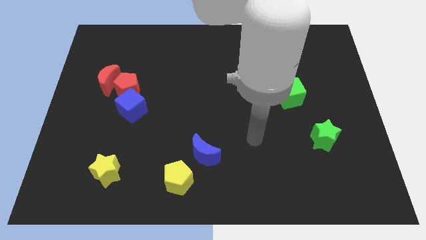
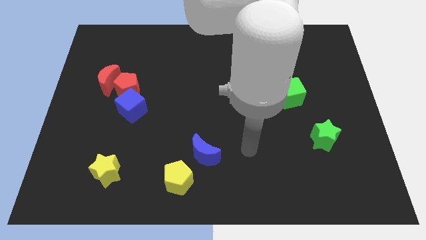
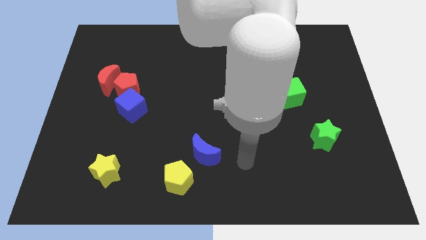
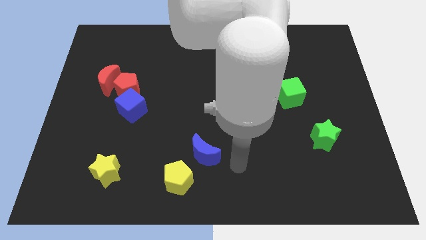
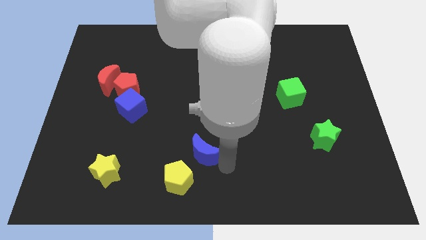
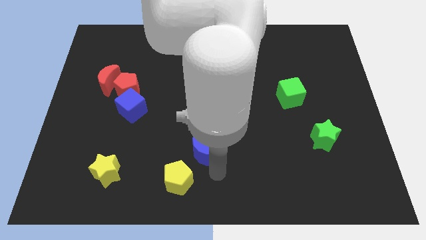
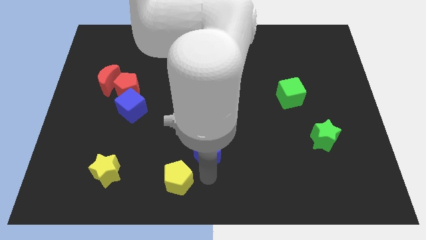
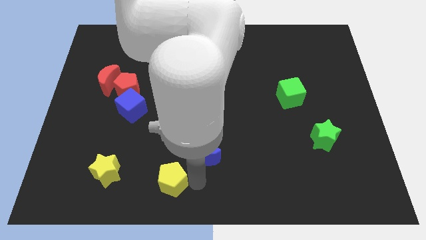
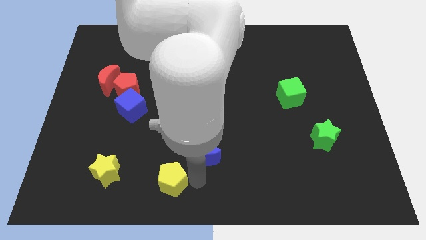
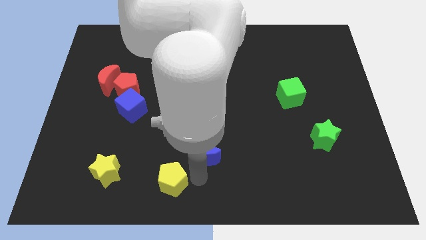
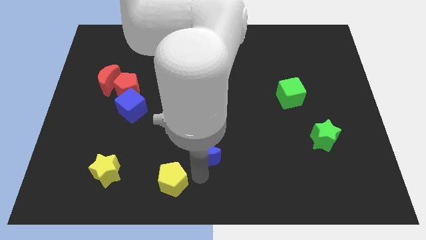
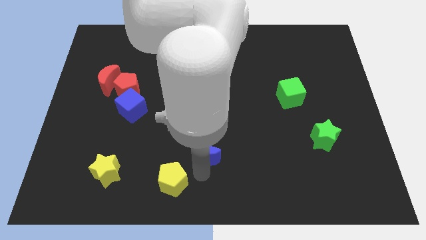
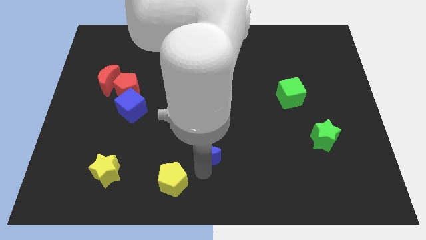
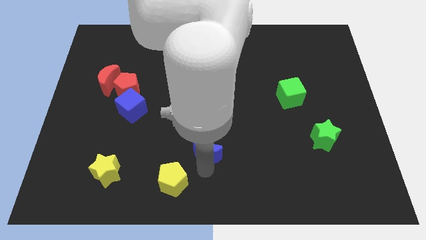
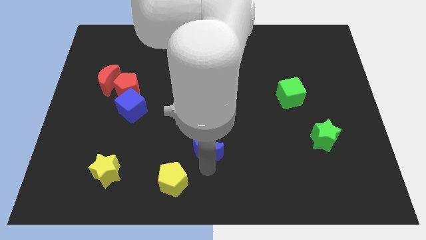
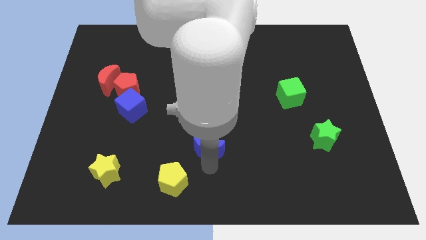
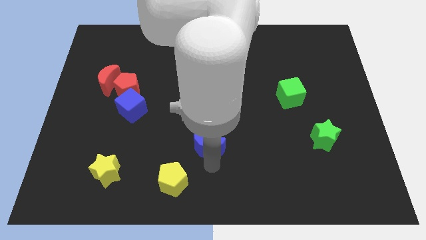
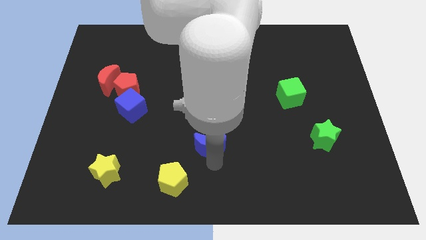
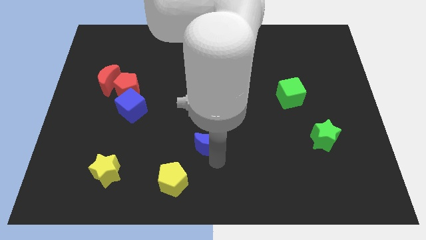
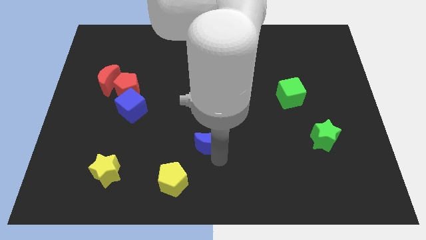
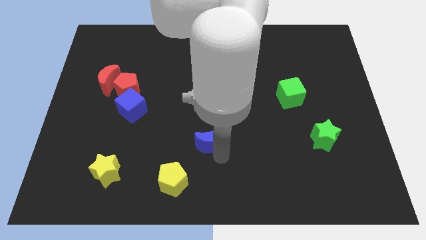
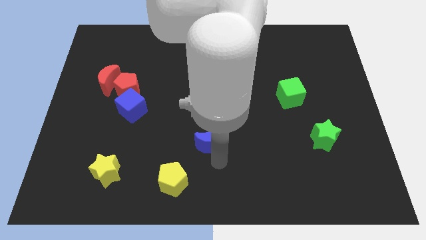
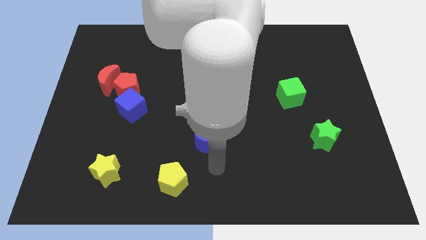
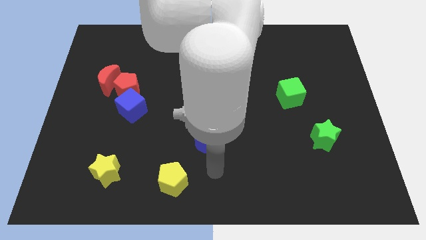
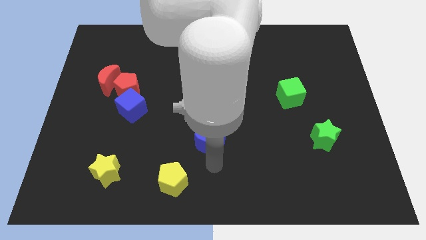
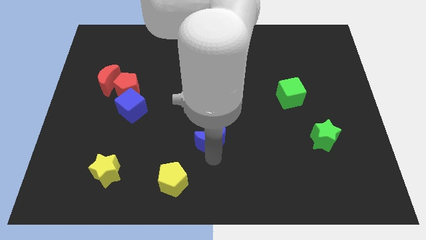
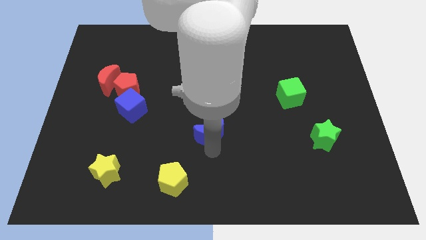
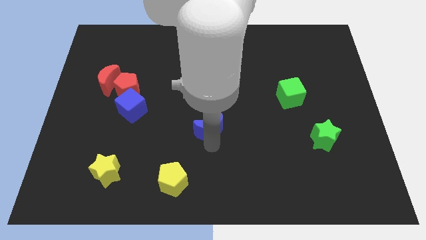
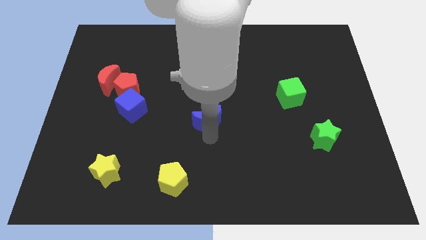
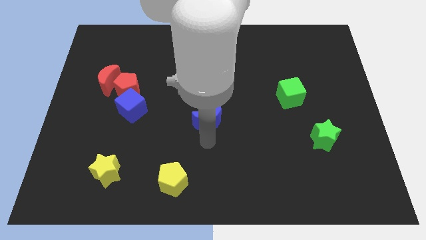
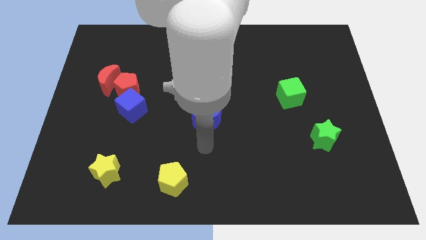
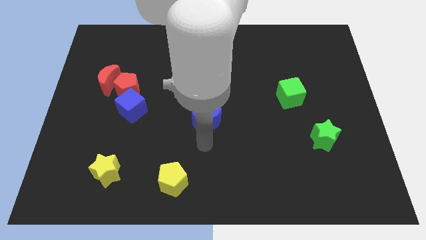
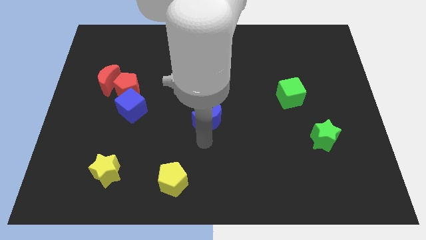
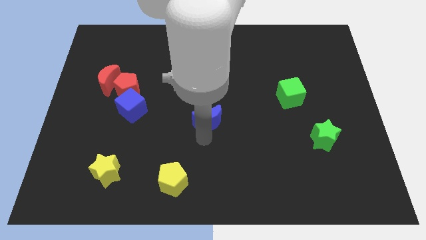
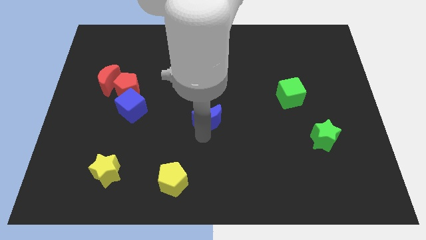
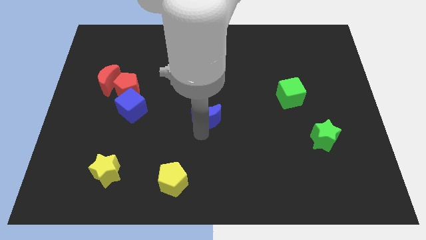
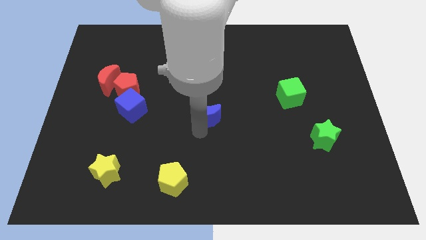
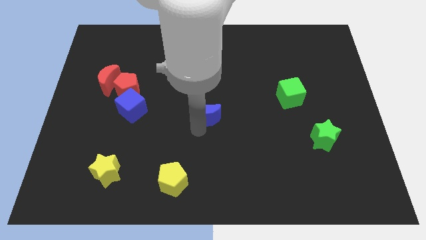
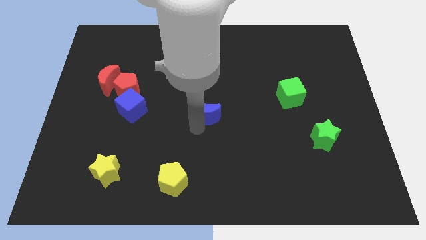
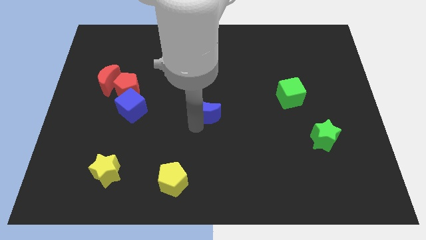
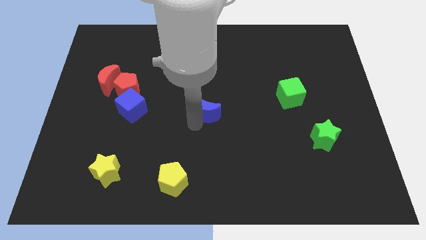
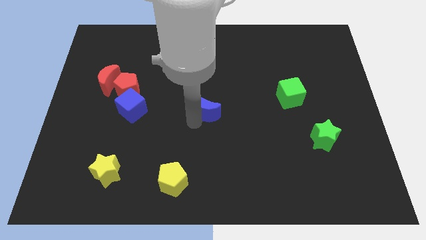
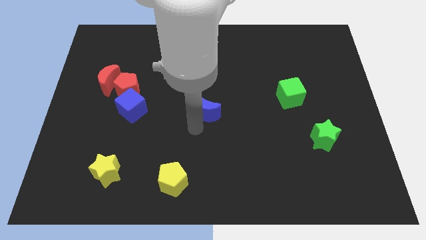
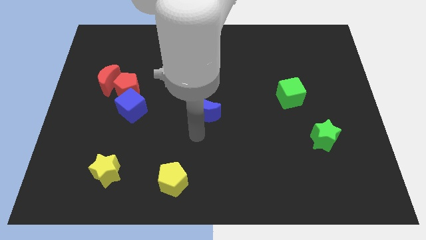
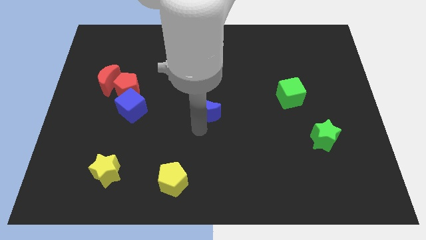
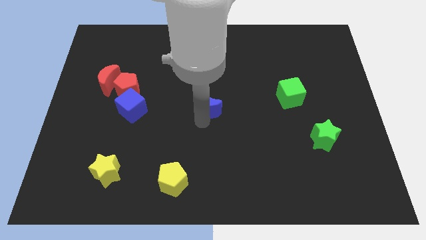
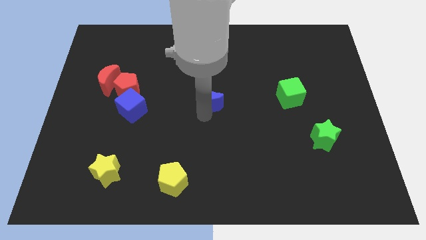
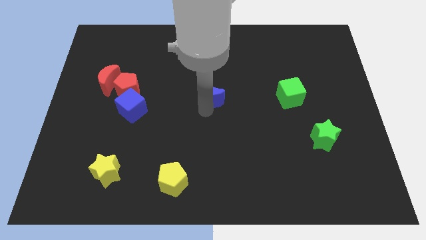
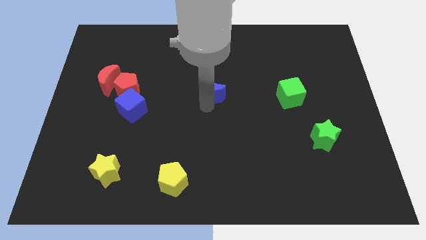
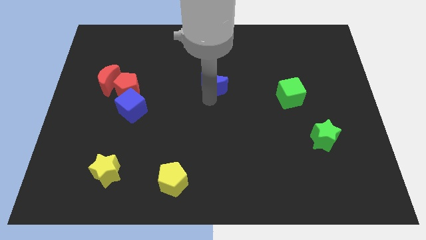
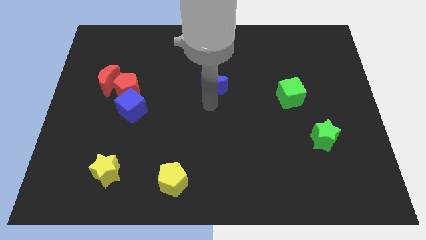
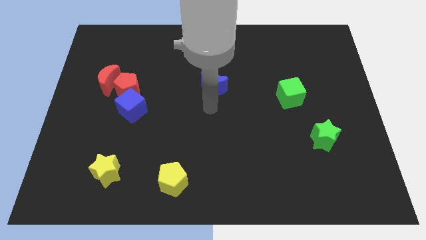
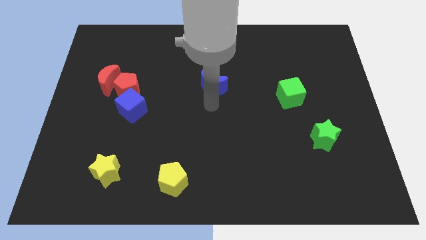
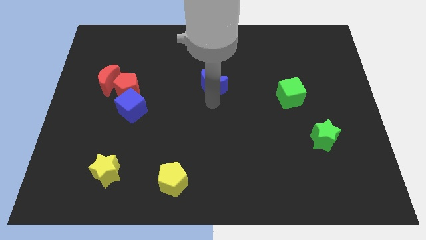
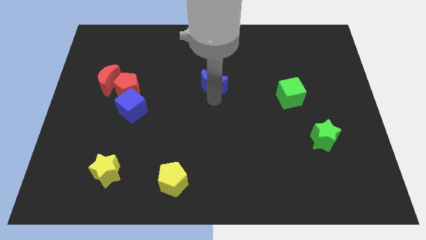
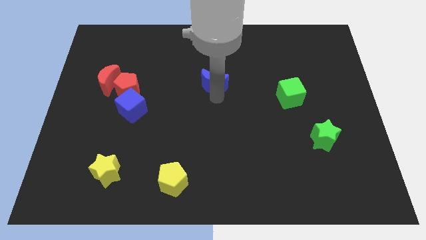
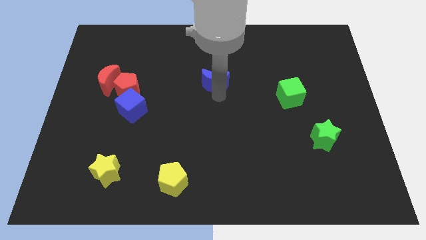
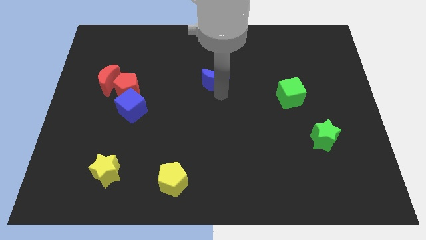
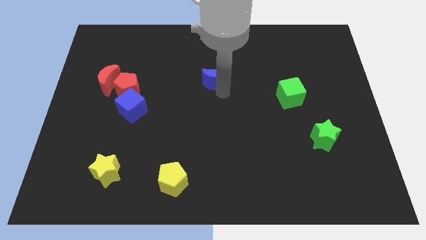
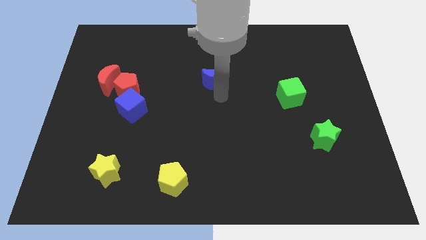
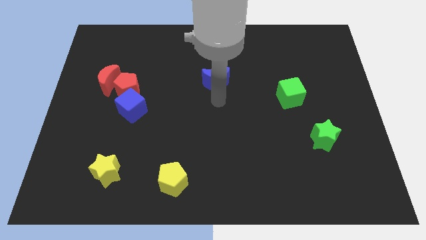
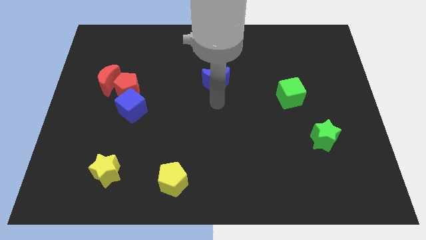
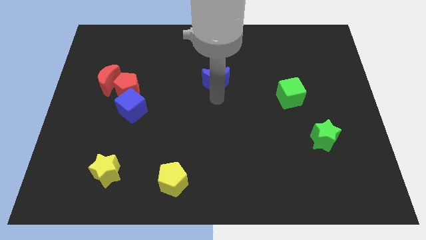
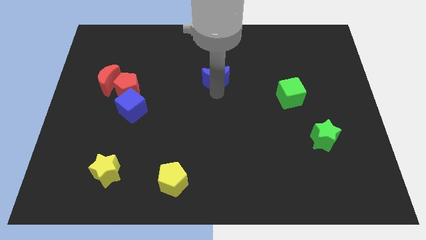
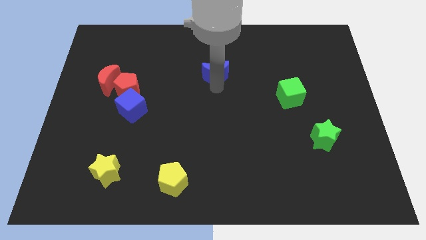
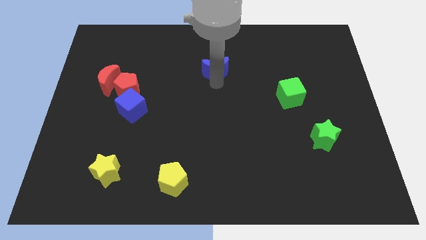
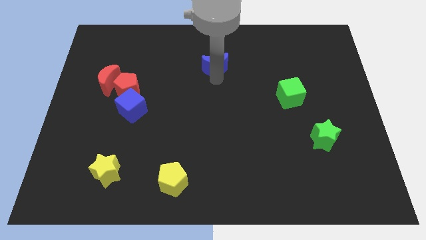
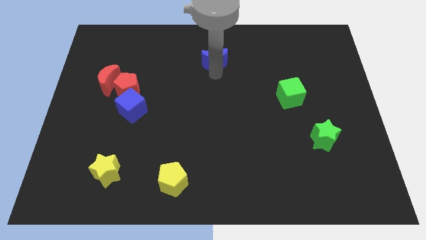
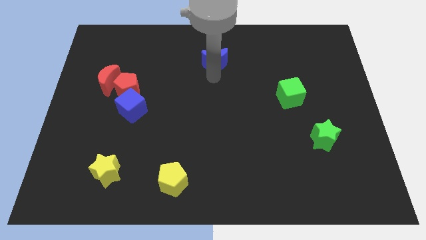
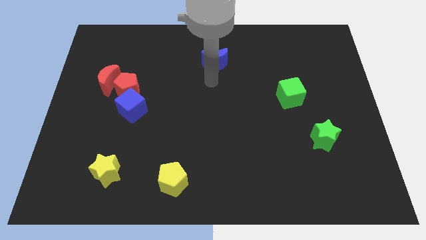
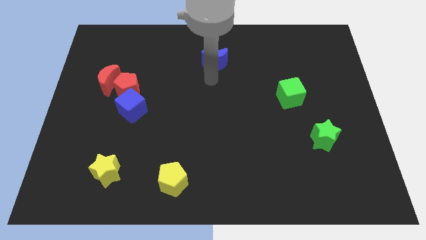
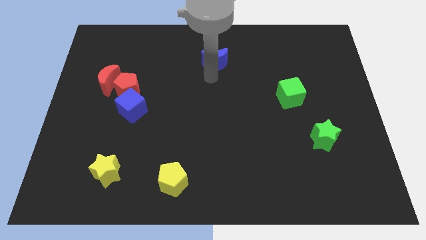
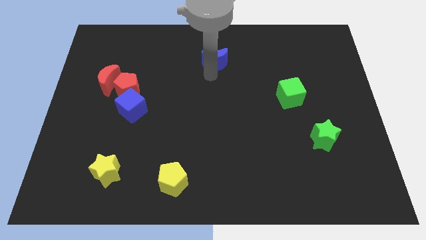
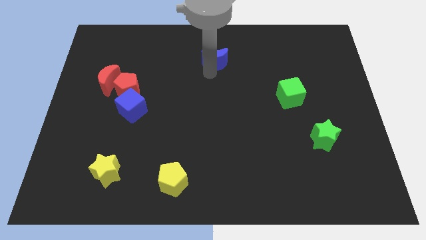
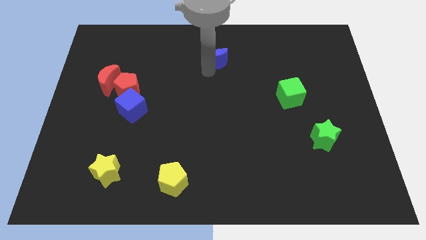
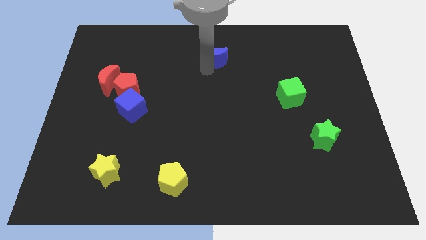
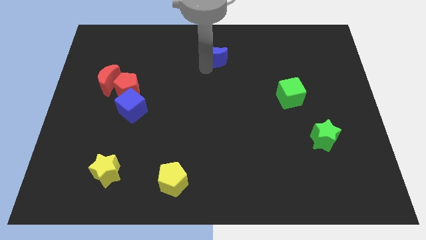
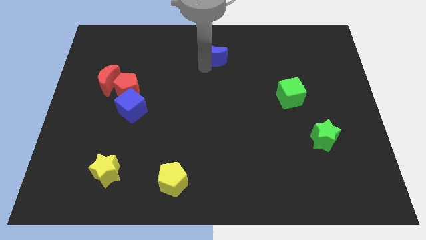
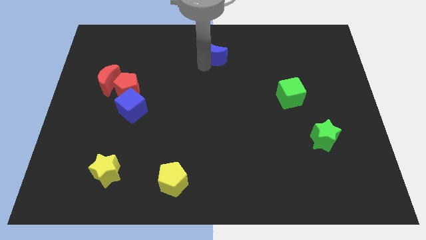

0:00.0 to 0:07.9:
push the blue moon to the towards your base
